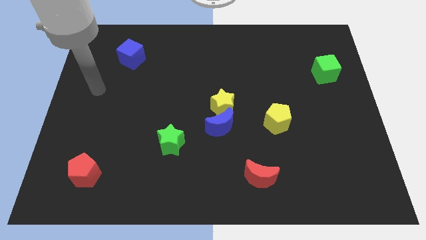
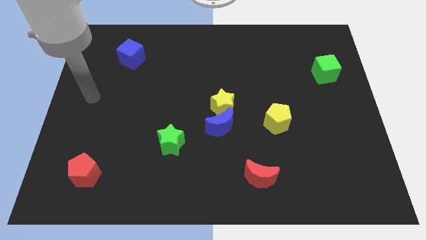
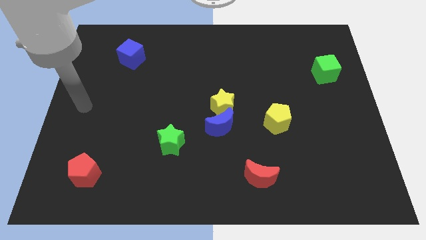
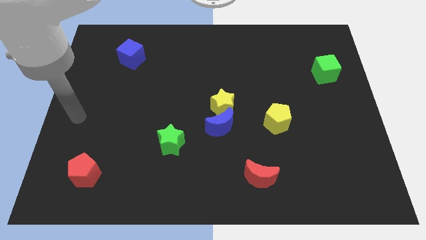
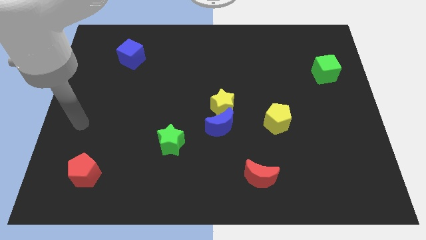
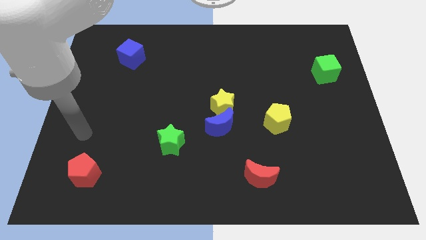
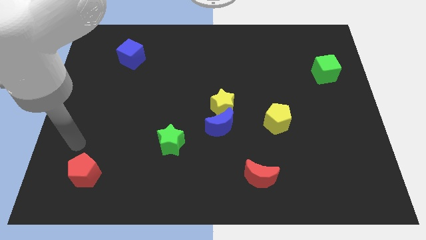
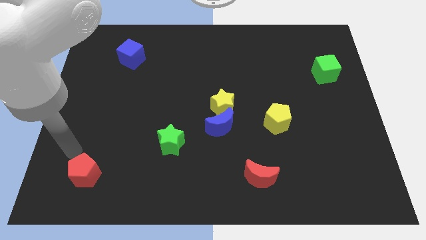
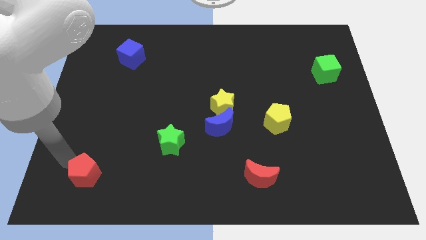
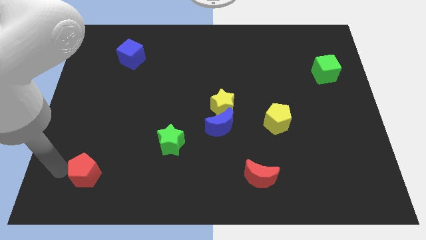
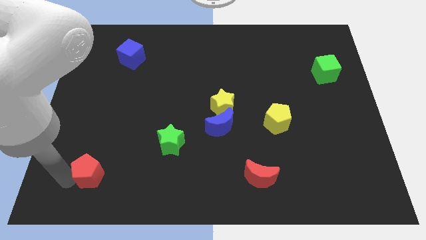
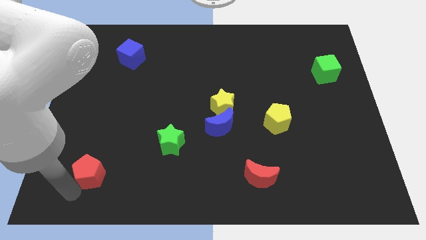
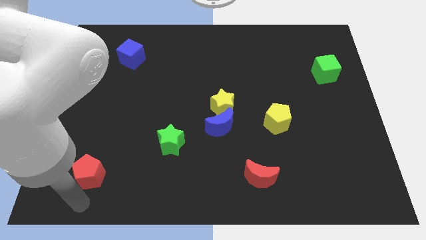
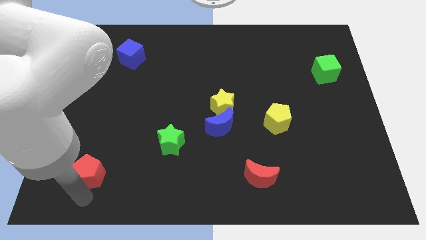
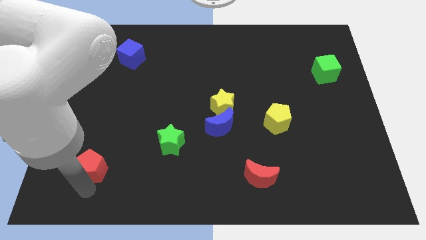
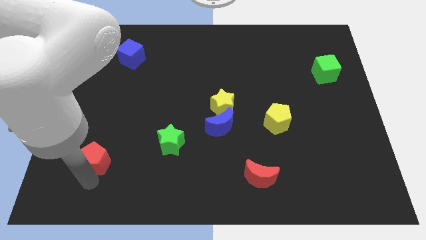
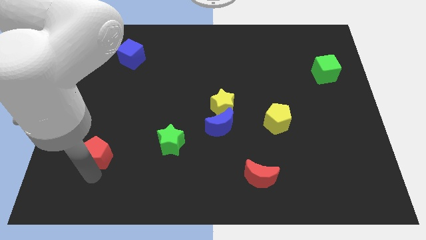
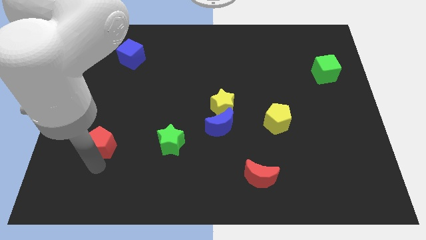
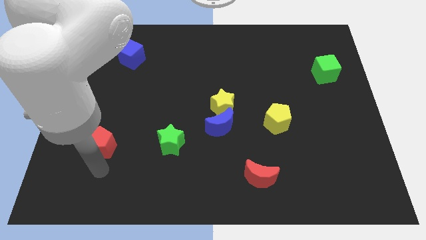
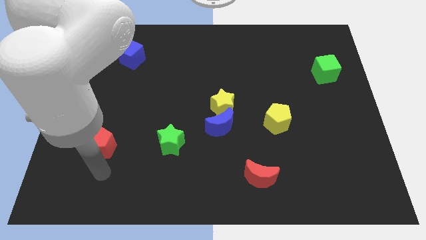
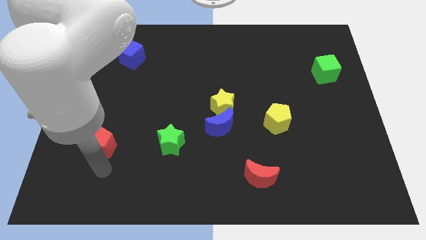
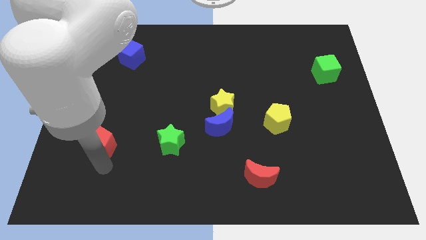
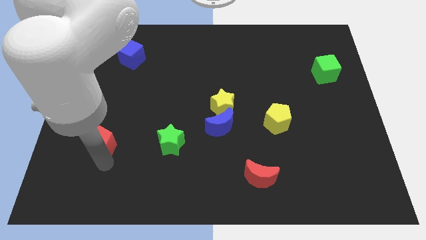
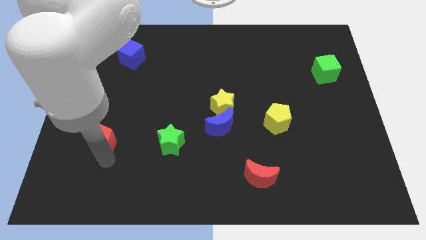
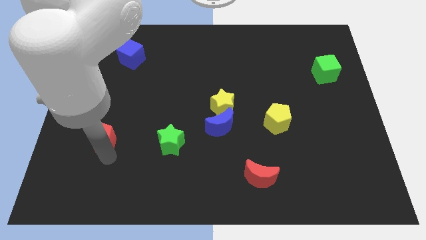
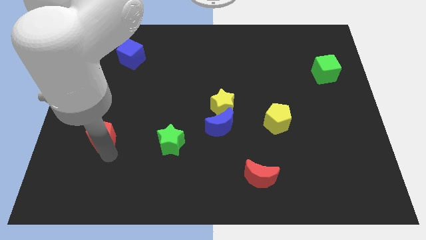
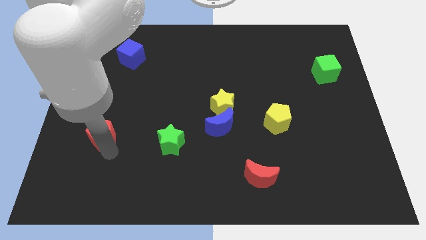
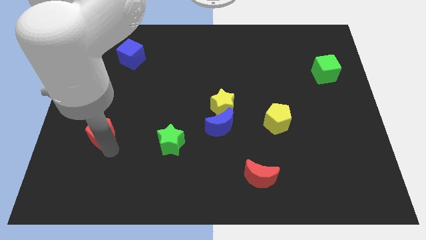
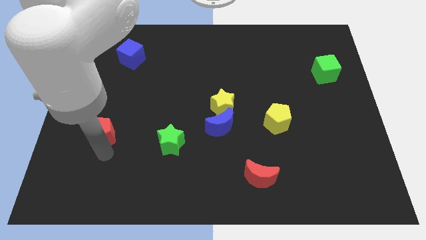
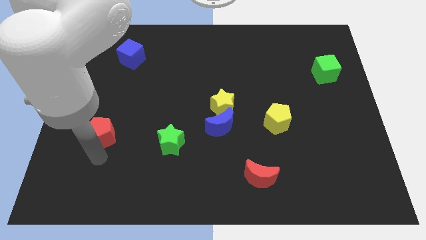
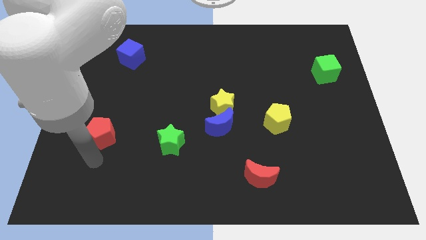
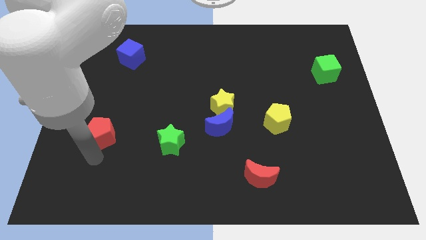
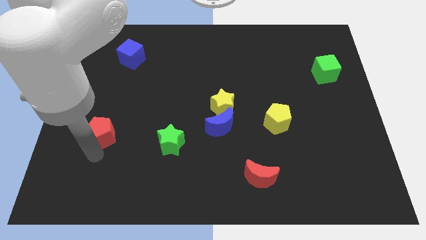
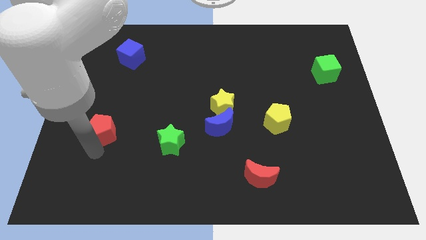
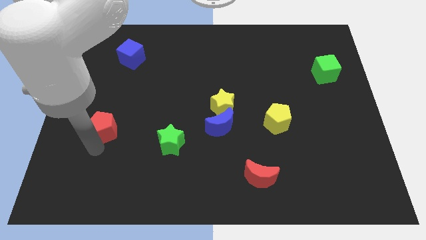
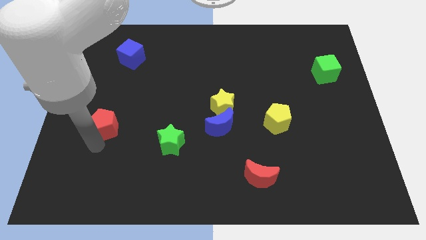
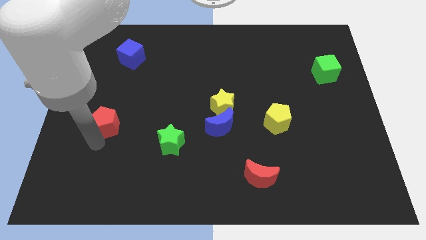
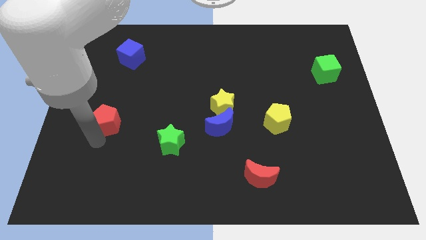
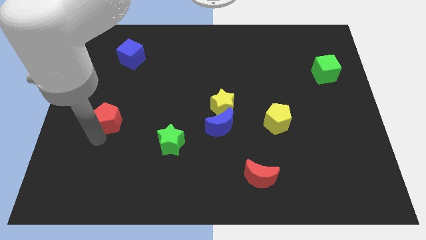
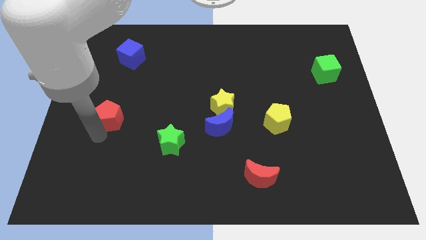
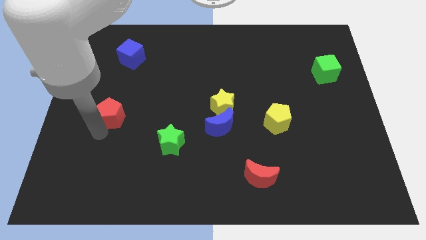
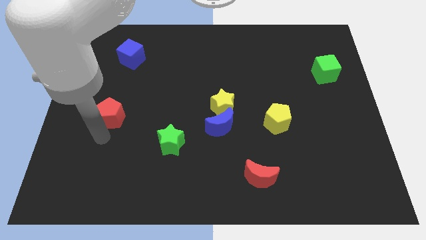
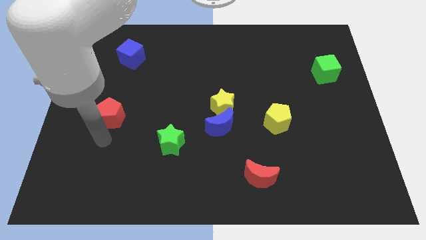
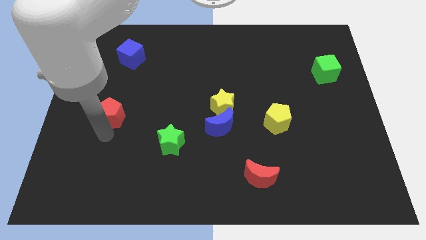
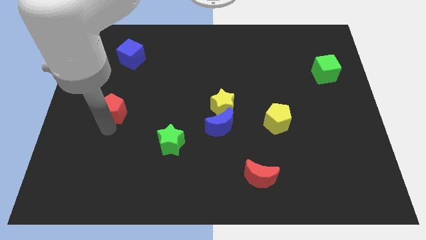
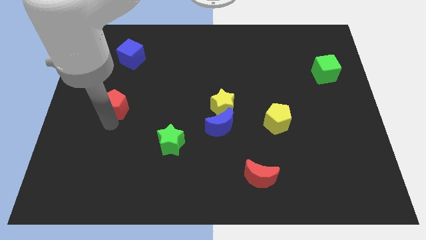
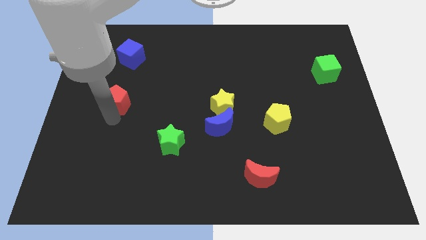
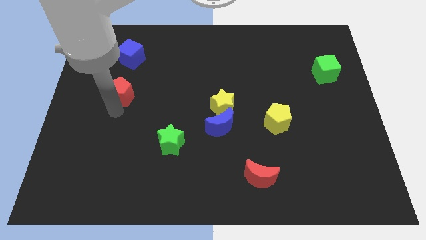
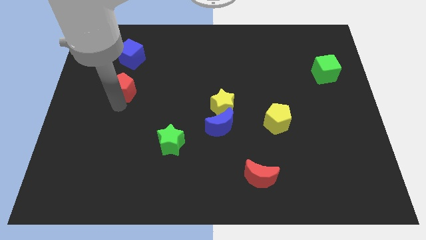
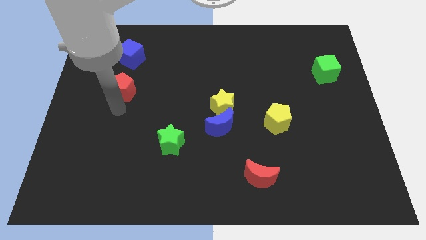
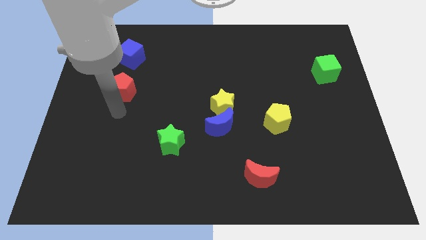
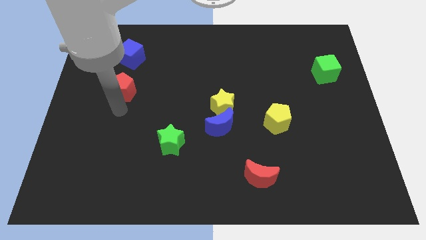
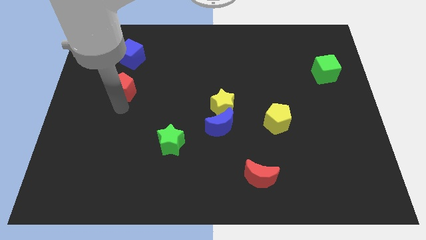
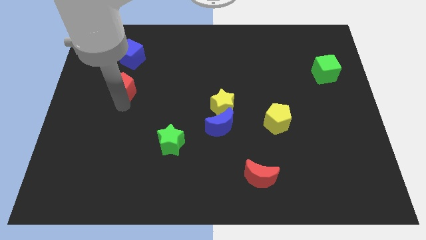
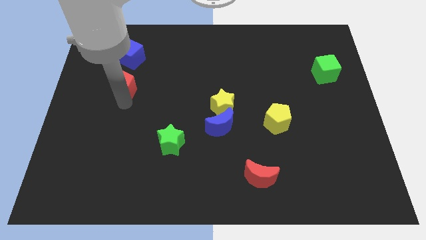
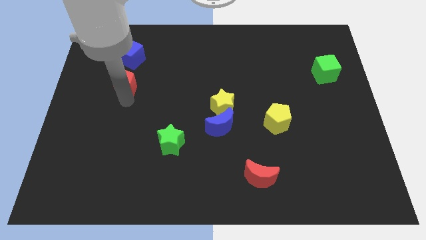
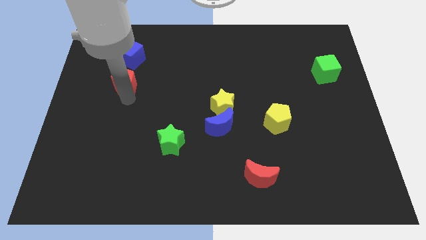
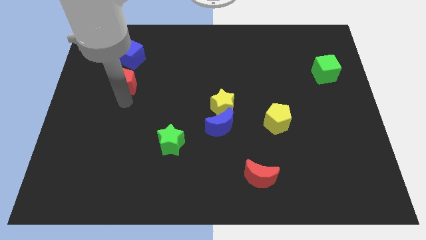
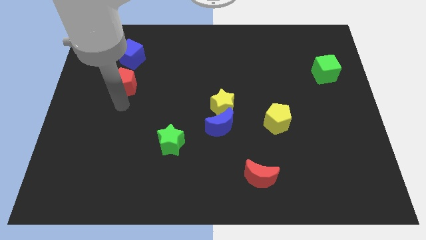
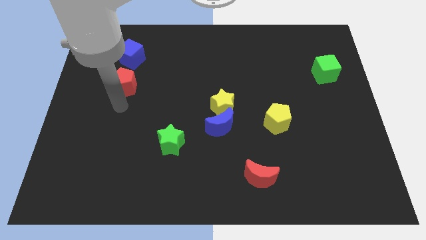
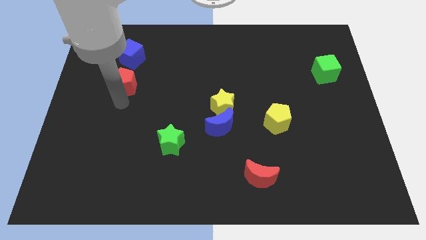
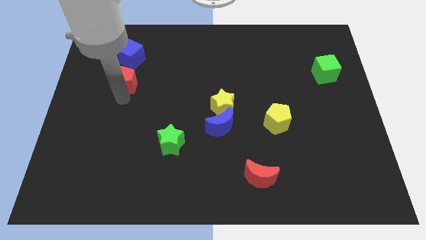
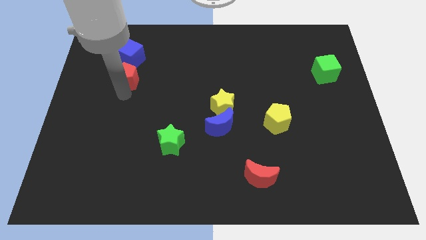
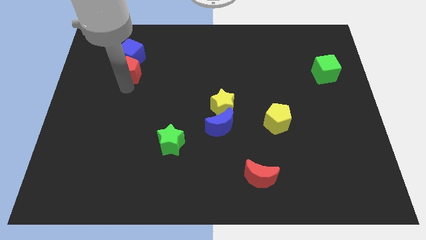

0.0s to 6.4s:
put the red pentagon close to the blue cube
